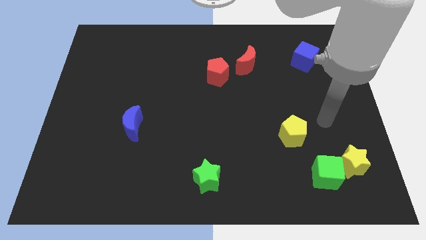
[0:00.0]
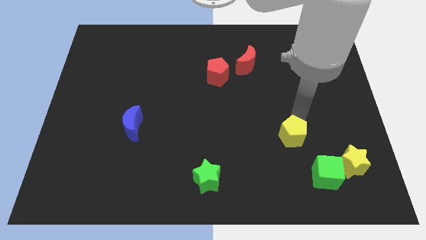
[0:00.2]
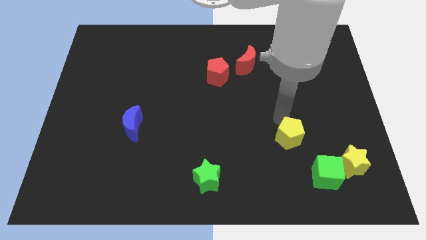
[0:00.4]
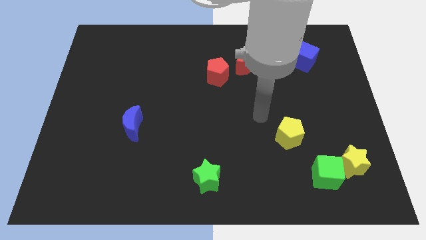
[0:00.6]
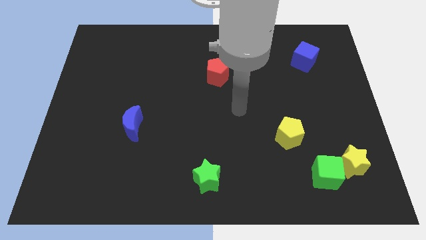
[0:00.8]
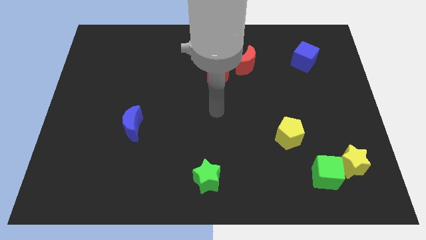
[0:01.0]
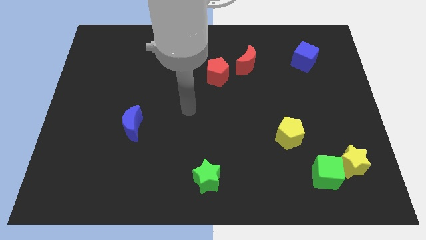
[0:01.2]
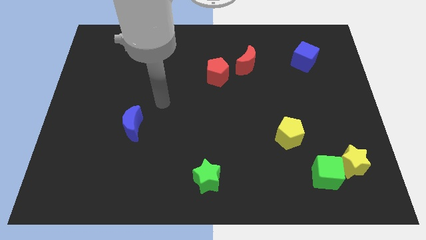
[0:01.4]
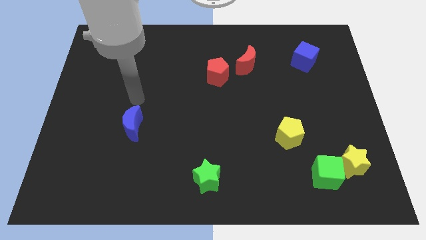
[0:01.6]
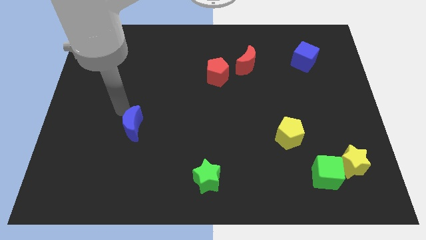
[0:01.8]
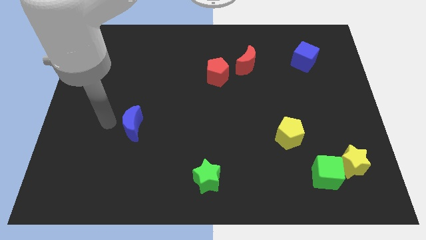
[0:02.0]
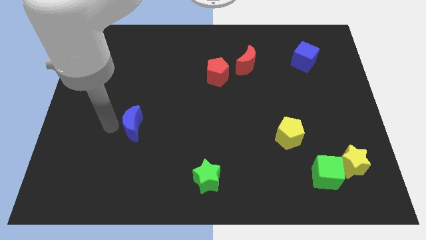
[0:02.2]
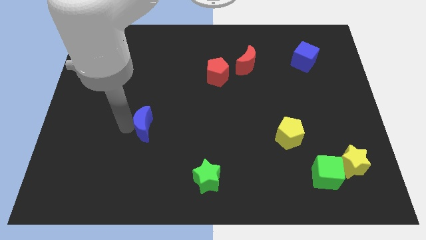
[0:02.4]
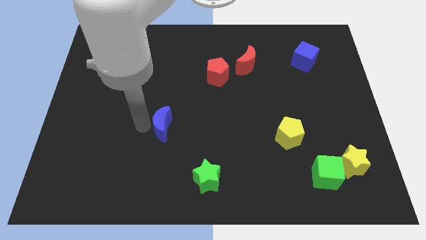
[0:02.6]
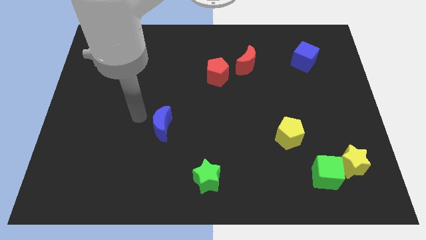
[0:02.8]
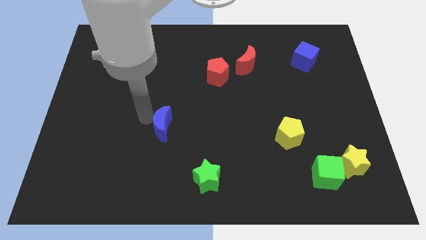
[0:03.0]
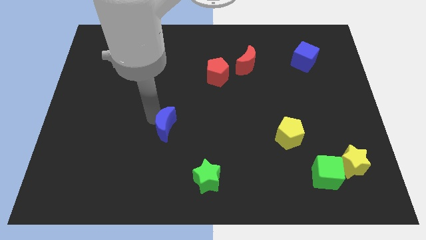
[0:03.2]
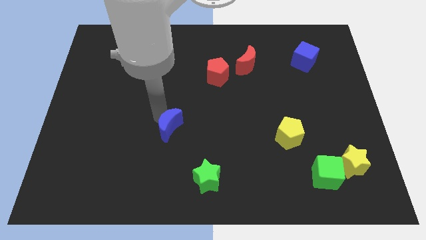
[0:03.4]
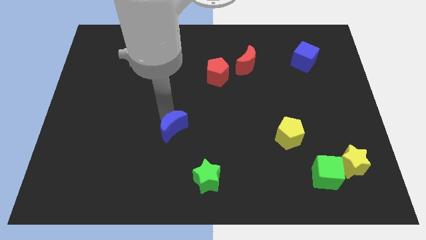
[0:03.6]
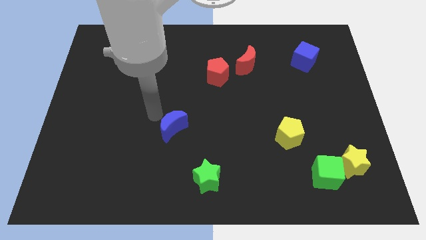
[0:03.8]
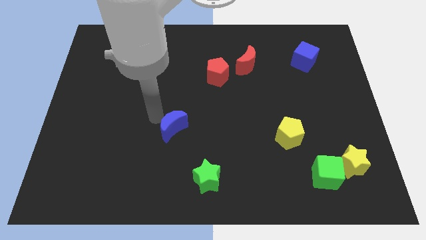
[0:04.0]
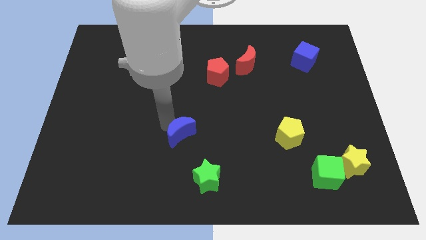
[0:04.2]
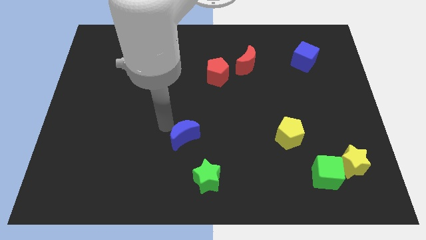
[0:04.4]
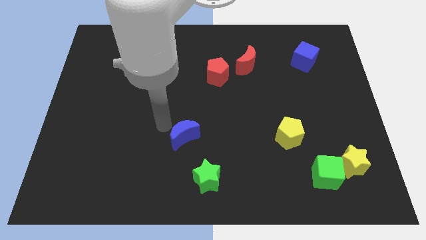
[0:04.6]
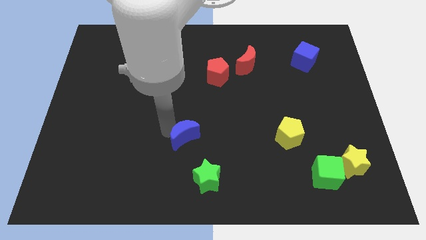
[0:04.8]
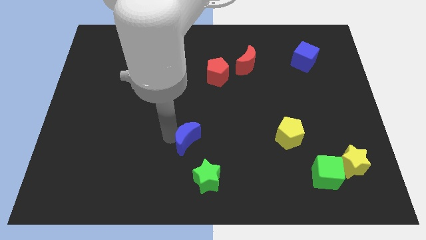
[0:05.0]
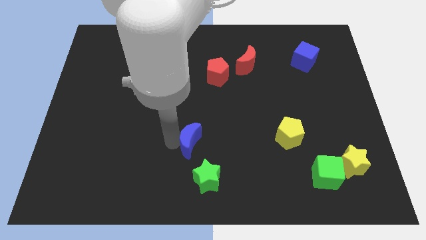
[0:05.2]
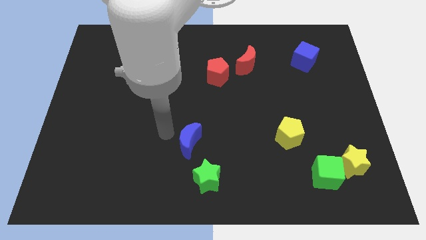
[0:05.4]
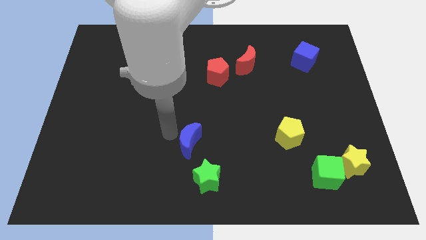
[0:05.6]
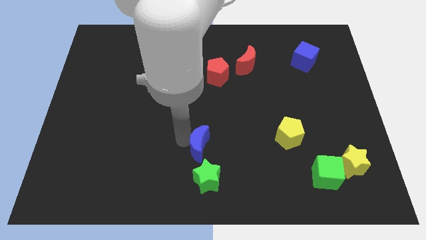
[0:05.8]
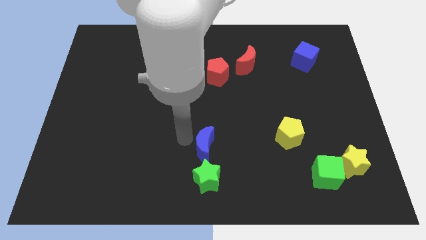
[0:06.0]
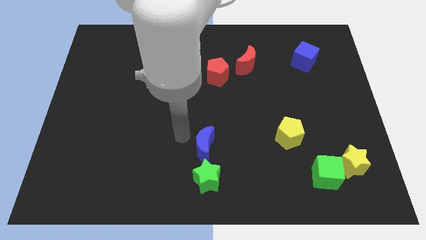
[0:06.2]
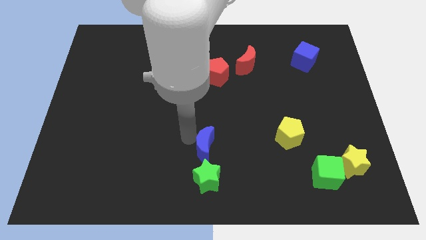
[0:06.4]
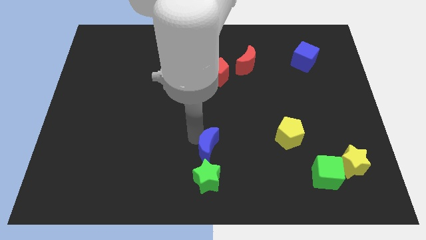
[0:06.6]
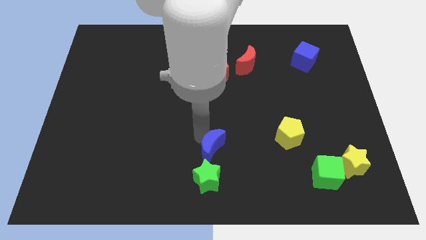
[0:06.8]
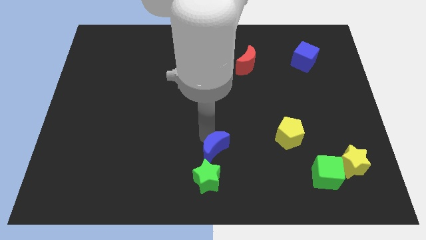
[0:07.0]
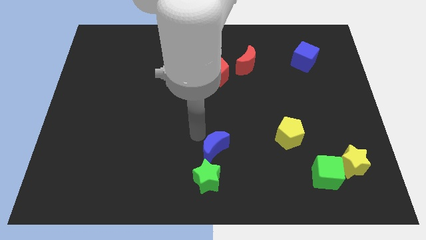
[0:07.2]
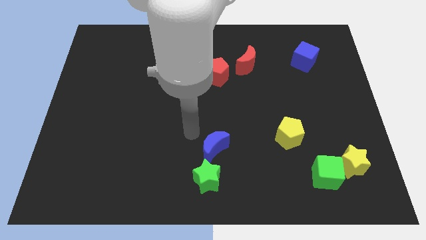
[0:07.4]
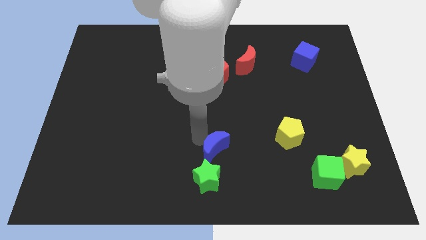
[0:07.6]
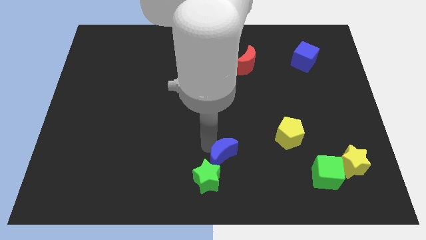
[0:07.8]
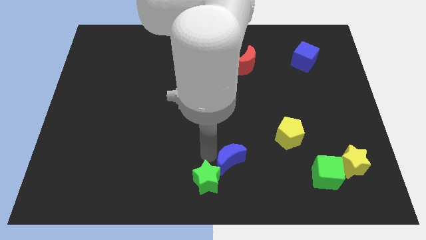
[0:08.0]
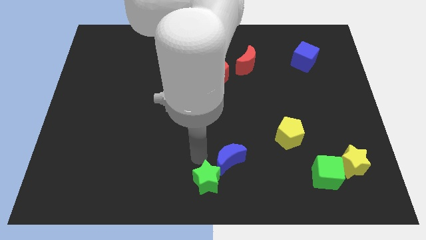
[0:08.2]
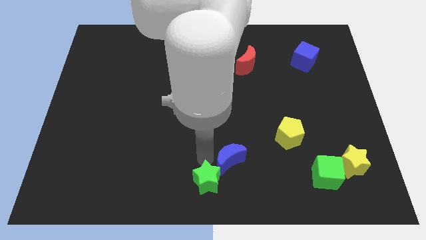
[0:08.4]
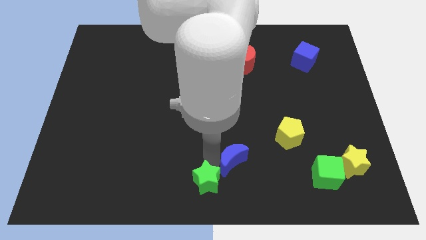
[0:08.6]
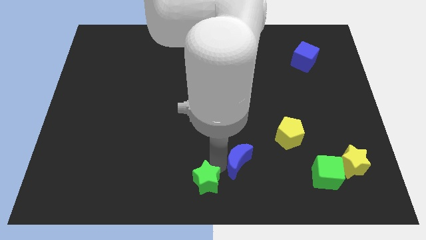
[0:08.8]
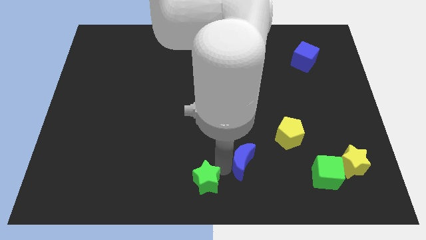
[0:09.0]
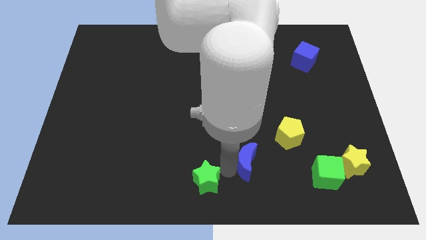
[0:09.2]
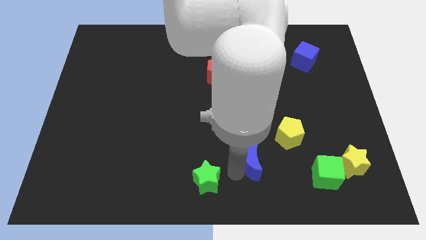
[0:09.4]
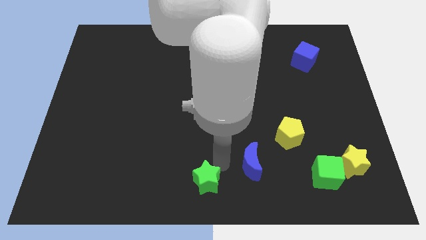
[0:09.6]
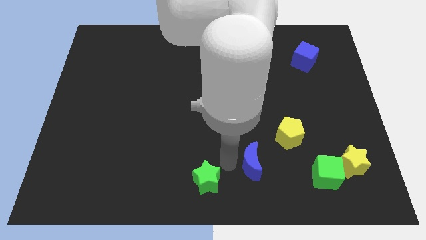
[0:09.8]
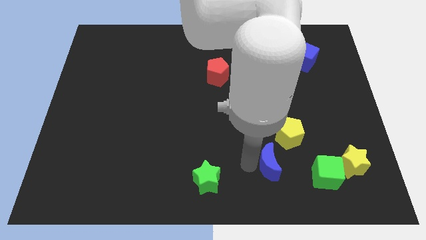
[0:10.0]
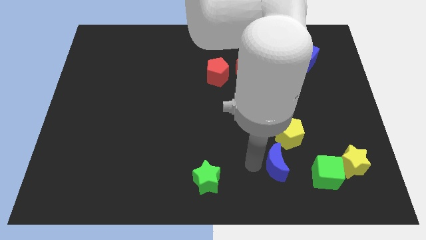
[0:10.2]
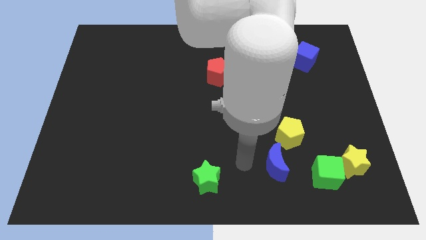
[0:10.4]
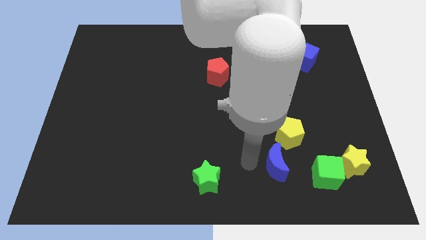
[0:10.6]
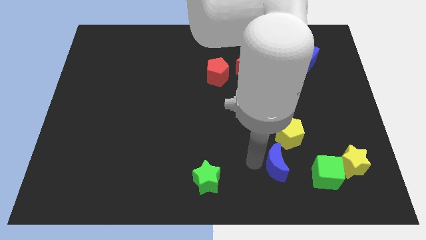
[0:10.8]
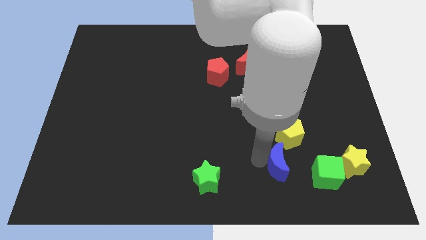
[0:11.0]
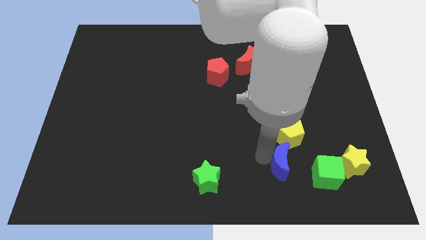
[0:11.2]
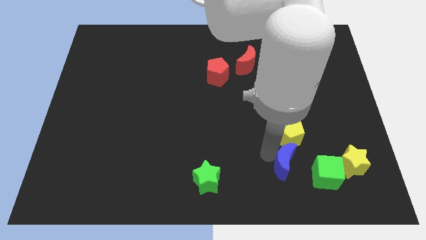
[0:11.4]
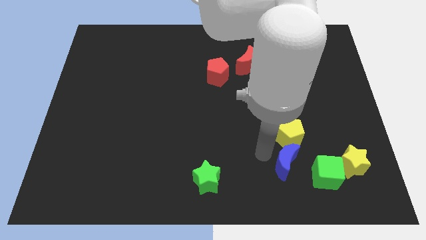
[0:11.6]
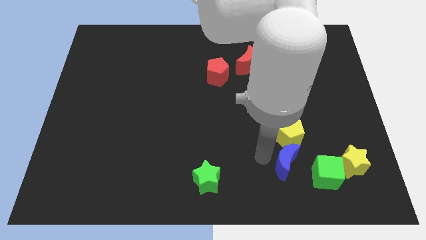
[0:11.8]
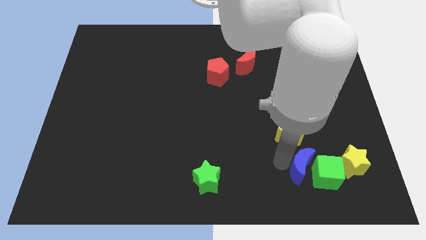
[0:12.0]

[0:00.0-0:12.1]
push the blue moon to the green cube
